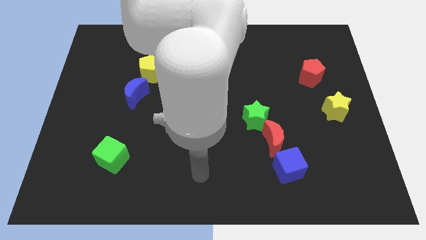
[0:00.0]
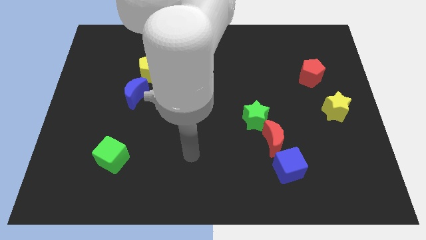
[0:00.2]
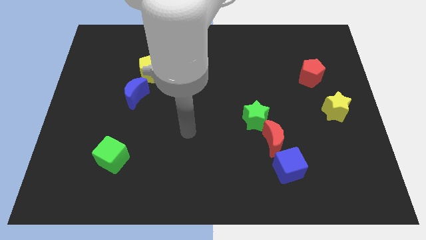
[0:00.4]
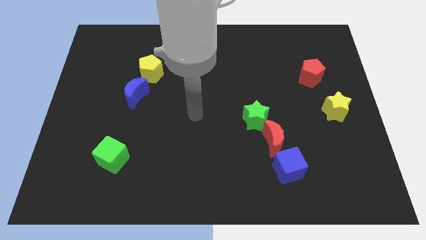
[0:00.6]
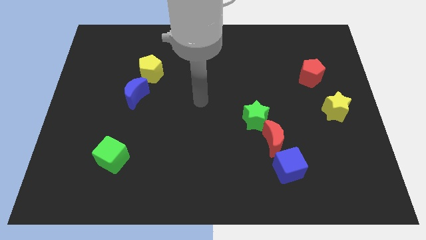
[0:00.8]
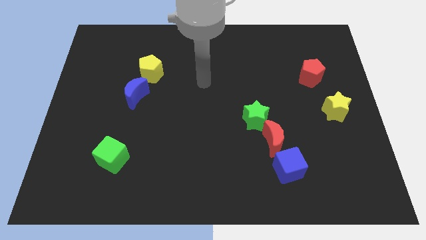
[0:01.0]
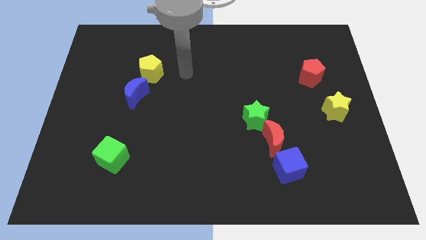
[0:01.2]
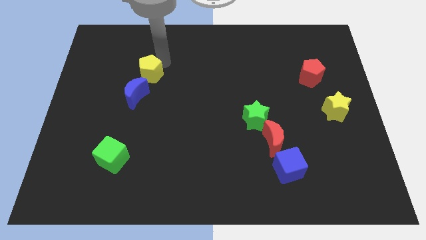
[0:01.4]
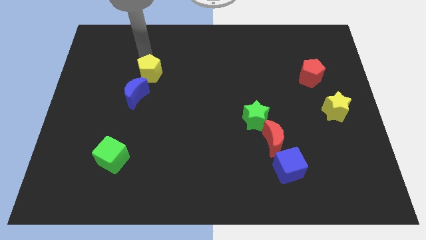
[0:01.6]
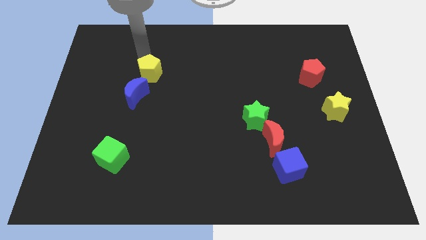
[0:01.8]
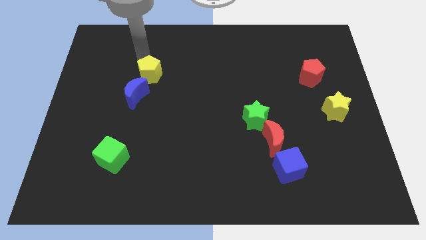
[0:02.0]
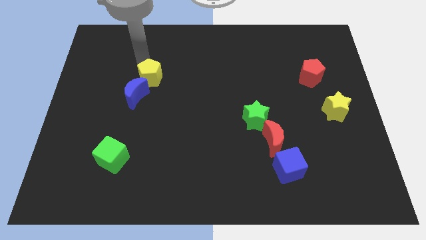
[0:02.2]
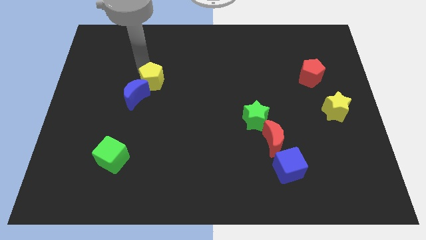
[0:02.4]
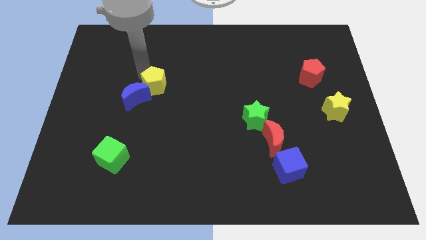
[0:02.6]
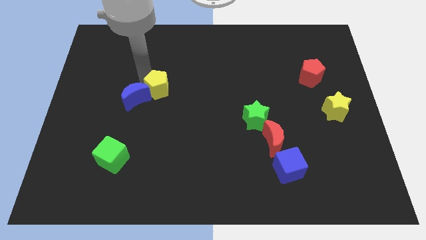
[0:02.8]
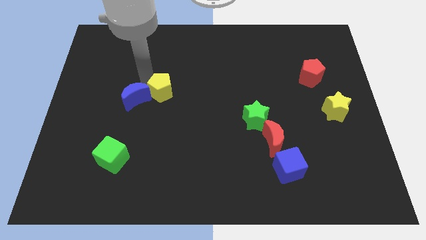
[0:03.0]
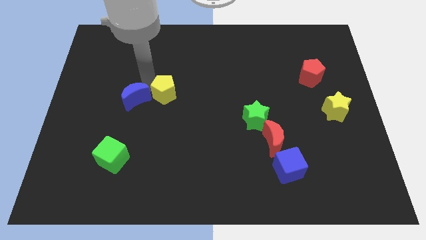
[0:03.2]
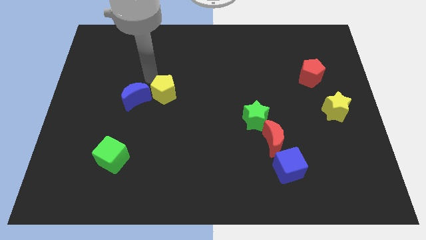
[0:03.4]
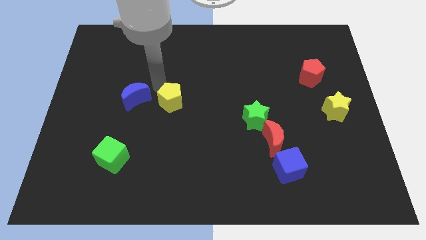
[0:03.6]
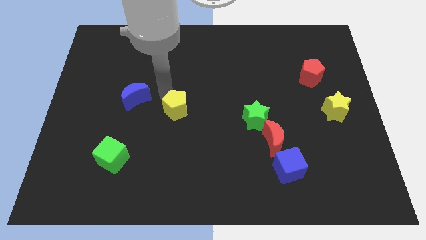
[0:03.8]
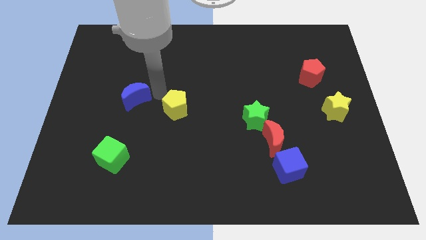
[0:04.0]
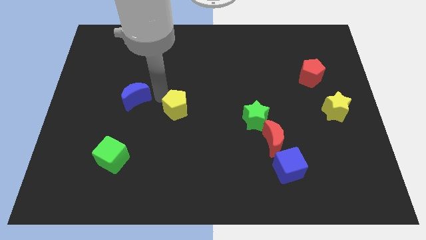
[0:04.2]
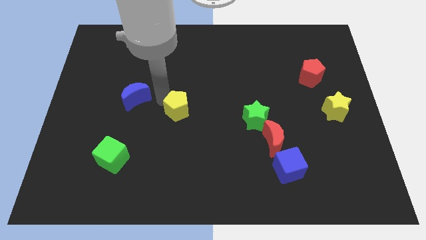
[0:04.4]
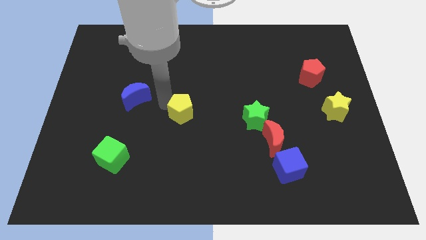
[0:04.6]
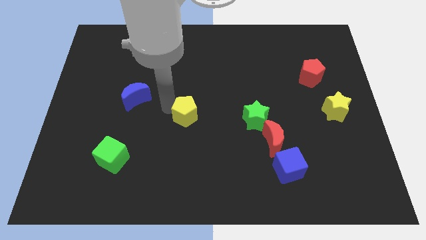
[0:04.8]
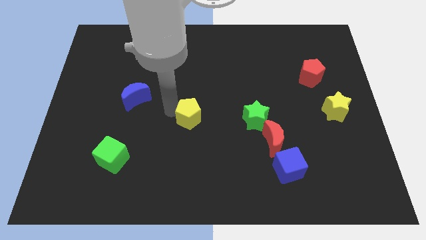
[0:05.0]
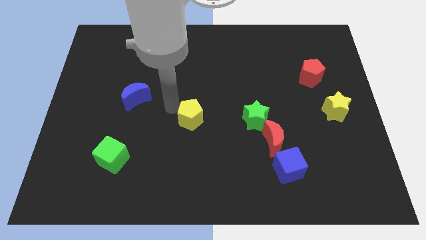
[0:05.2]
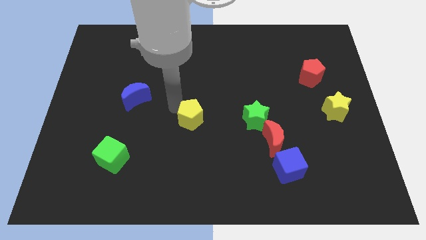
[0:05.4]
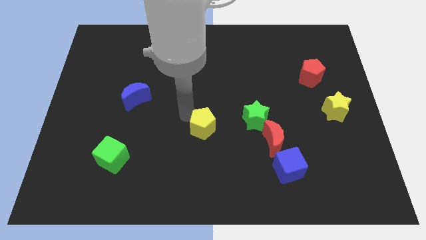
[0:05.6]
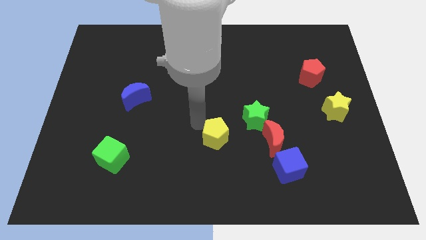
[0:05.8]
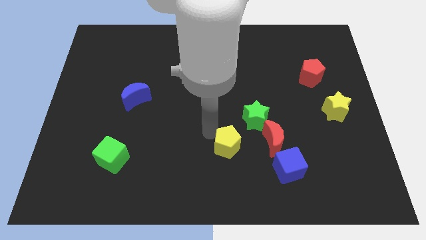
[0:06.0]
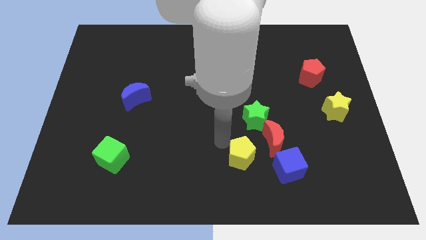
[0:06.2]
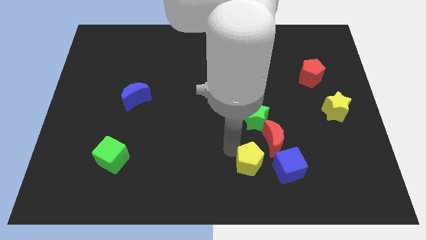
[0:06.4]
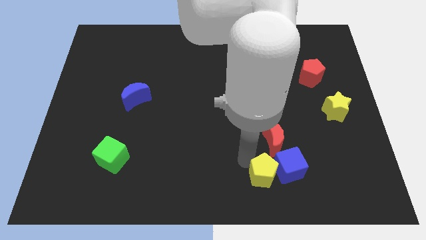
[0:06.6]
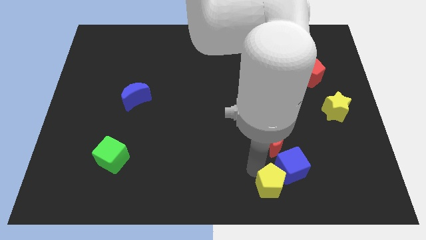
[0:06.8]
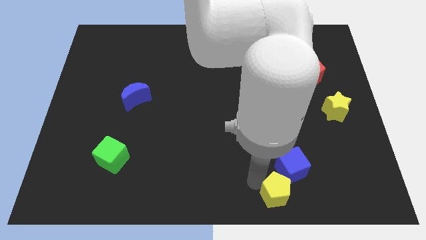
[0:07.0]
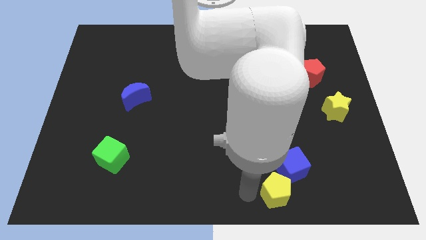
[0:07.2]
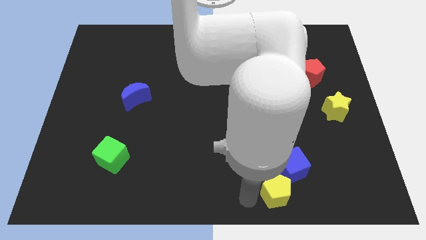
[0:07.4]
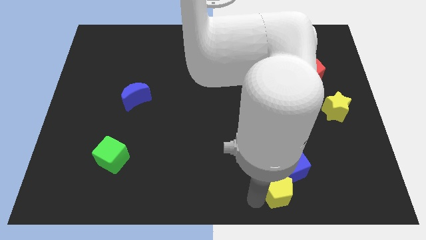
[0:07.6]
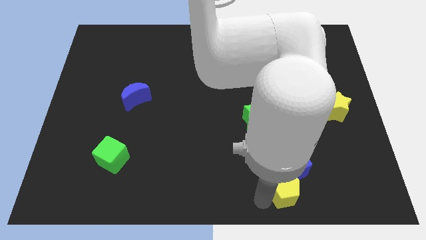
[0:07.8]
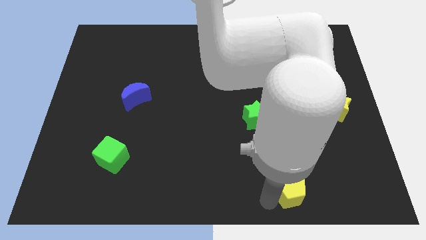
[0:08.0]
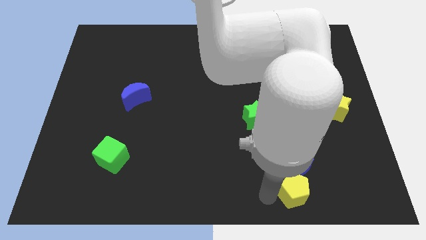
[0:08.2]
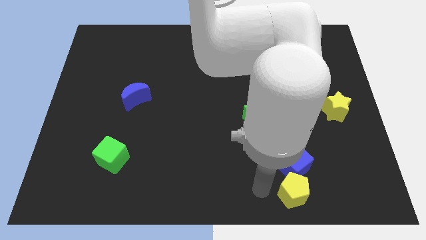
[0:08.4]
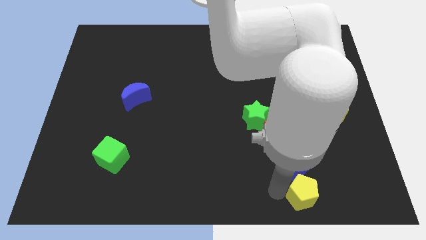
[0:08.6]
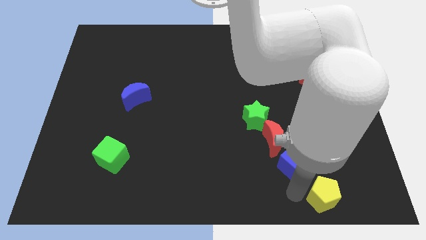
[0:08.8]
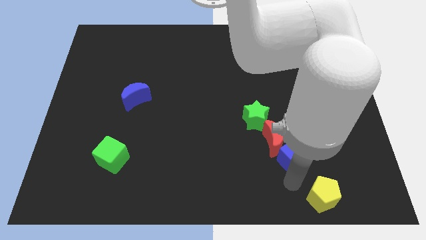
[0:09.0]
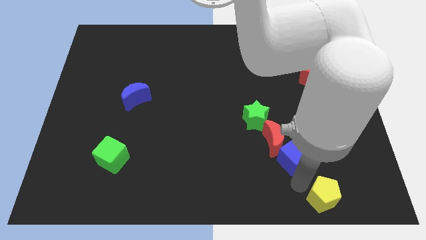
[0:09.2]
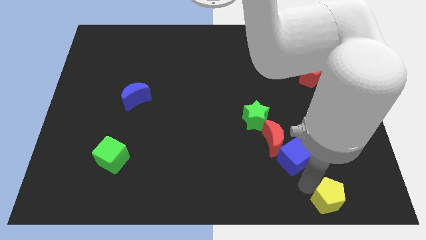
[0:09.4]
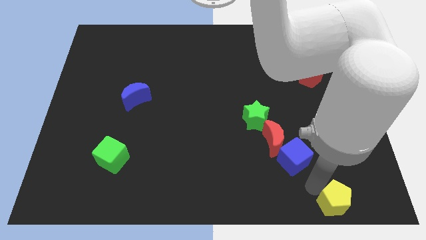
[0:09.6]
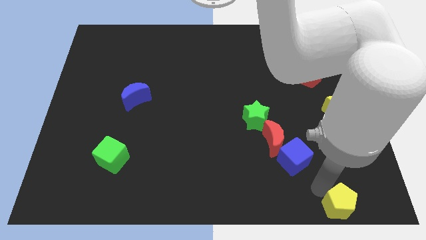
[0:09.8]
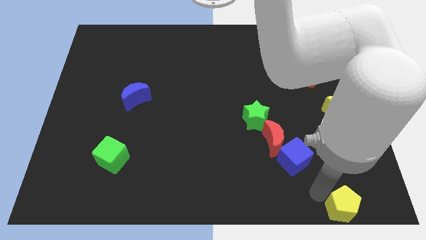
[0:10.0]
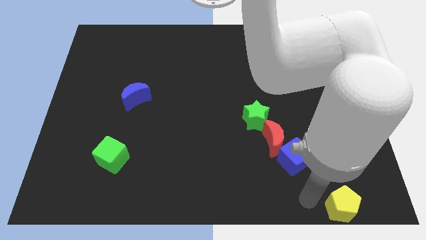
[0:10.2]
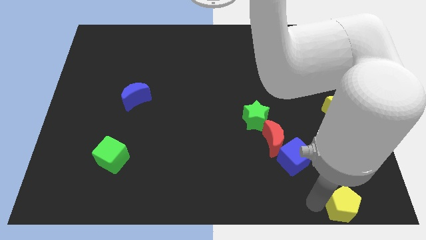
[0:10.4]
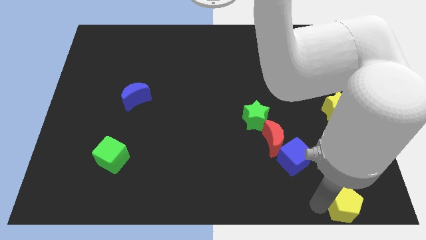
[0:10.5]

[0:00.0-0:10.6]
push the yellow pentagon to the lower right corner

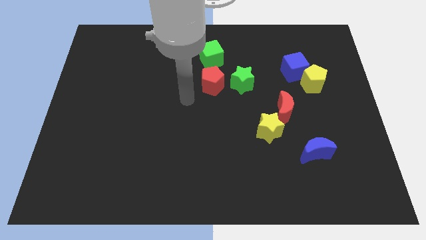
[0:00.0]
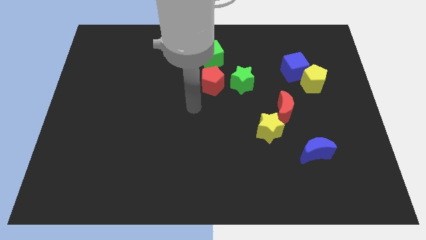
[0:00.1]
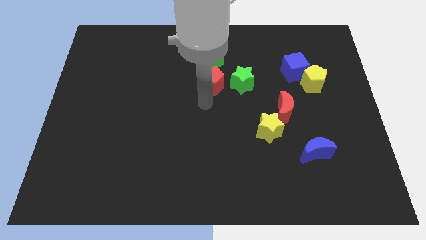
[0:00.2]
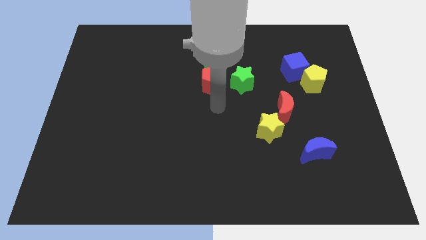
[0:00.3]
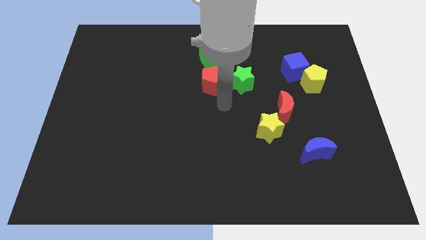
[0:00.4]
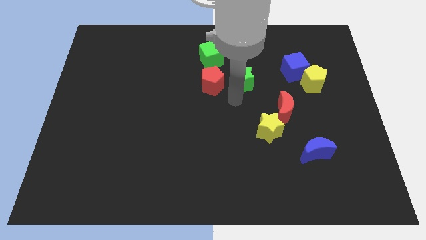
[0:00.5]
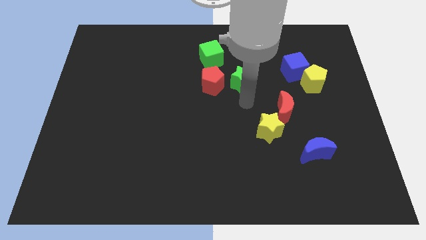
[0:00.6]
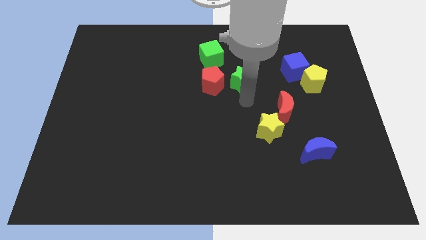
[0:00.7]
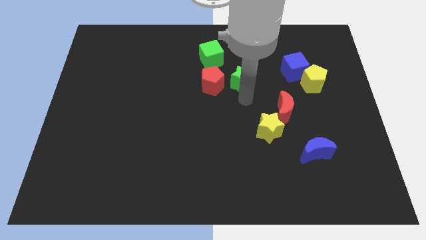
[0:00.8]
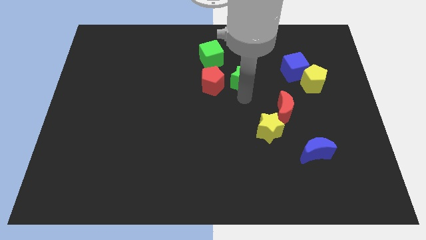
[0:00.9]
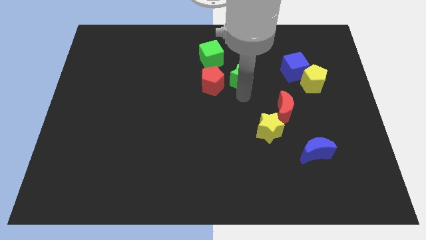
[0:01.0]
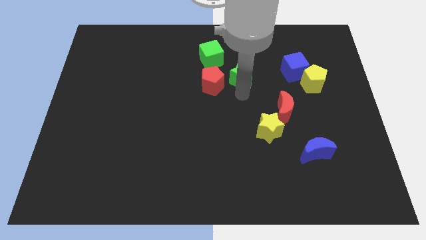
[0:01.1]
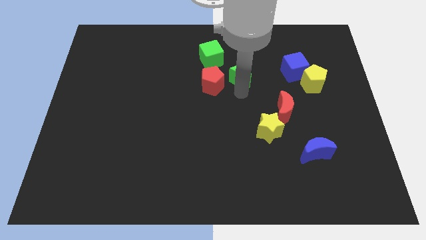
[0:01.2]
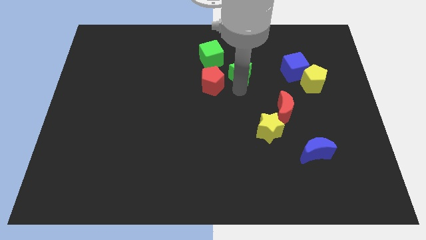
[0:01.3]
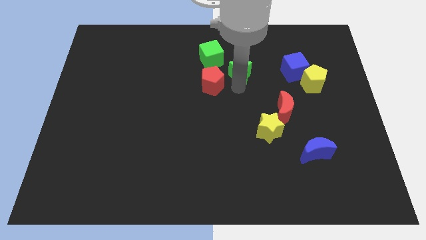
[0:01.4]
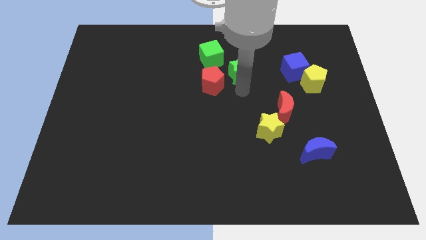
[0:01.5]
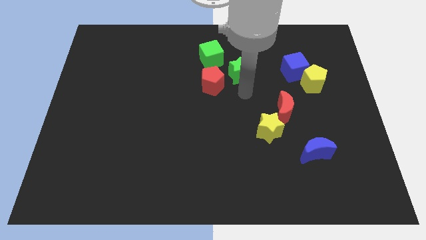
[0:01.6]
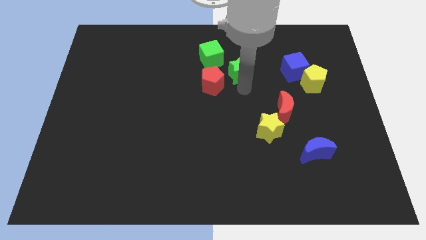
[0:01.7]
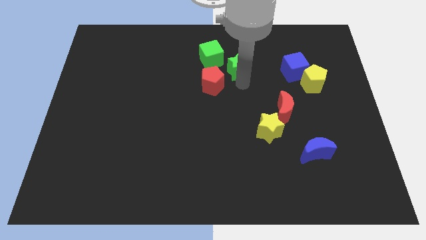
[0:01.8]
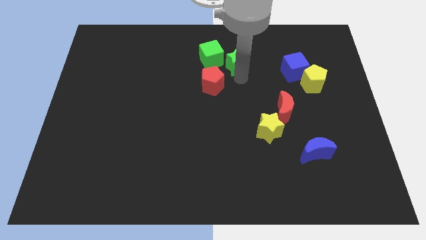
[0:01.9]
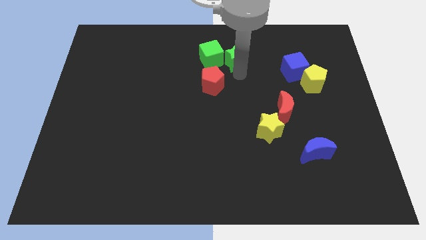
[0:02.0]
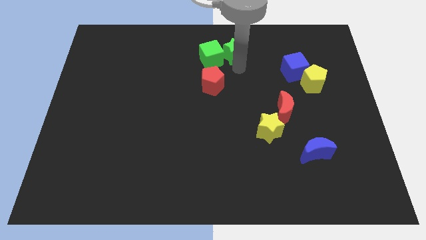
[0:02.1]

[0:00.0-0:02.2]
slide the green star to the top side
